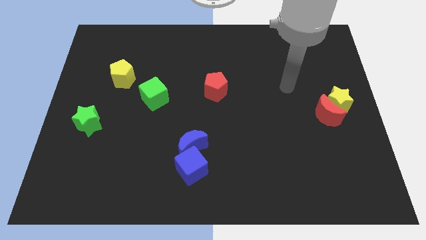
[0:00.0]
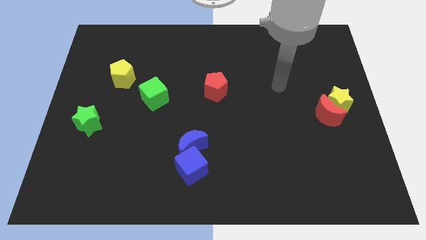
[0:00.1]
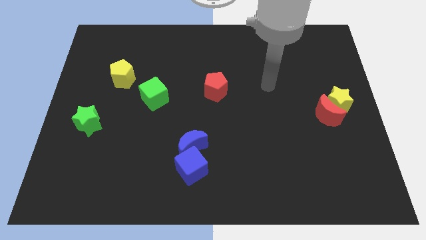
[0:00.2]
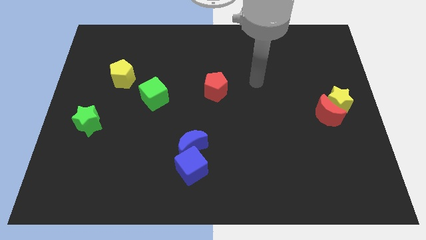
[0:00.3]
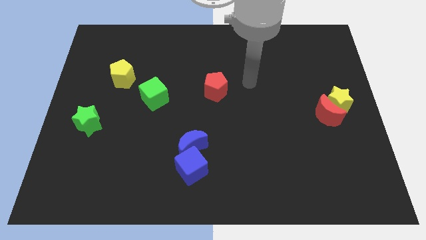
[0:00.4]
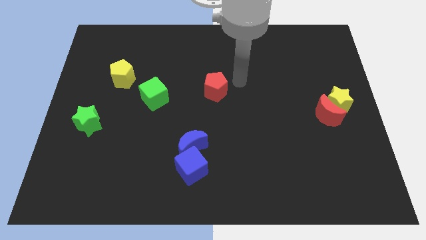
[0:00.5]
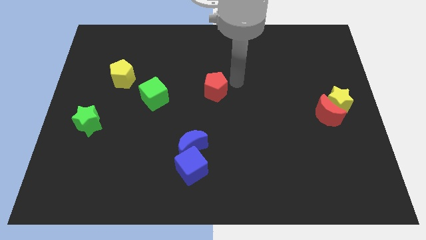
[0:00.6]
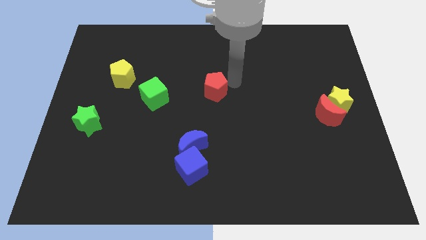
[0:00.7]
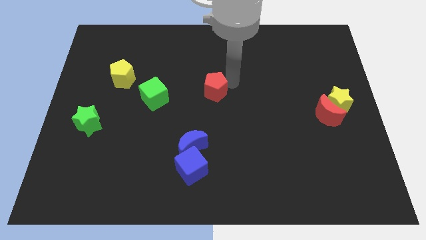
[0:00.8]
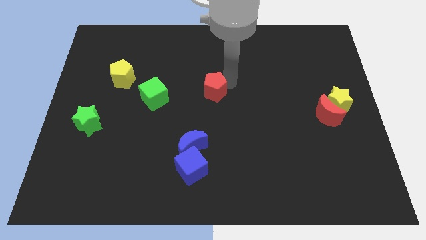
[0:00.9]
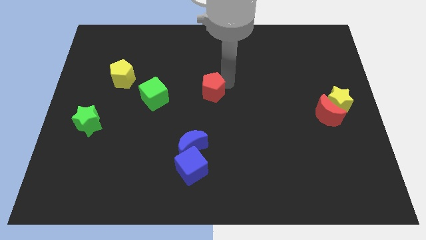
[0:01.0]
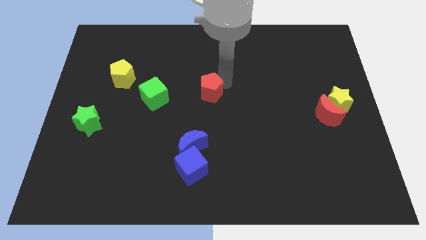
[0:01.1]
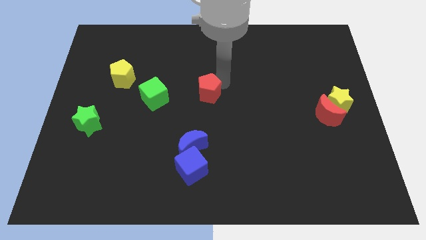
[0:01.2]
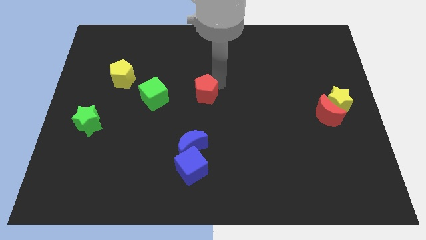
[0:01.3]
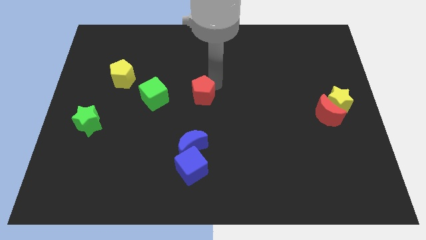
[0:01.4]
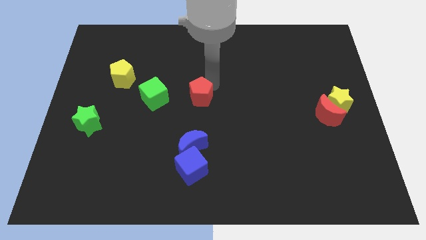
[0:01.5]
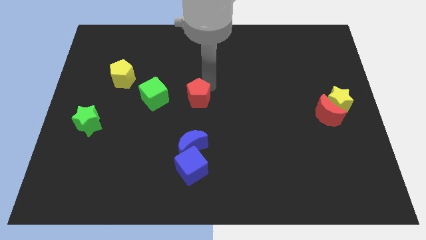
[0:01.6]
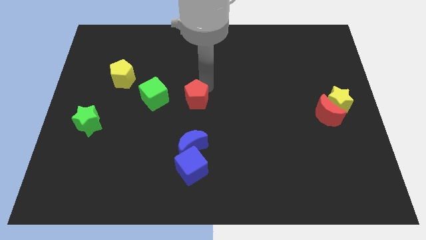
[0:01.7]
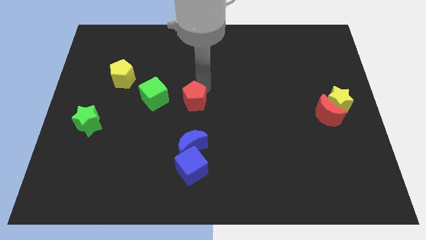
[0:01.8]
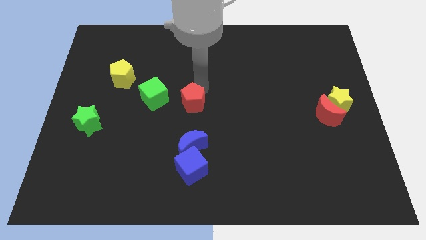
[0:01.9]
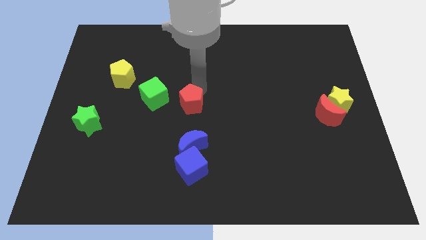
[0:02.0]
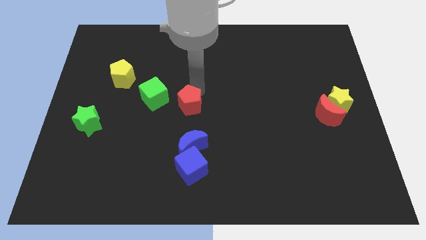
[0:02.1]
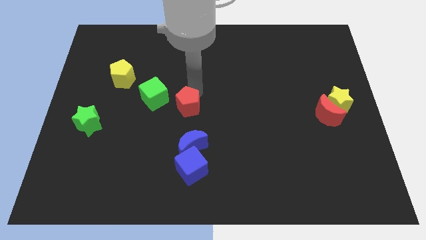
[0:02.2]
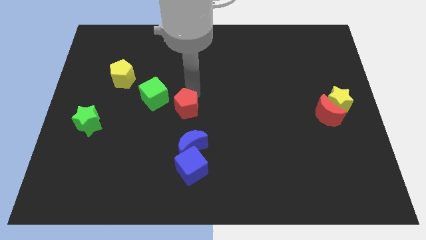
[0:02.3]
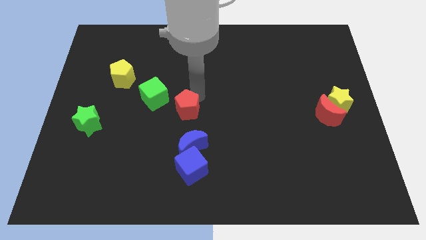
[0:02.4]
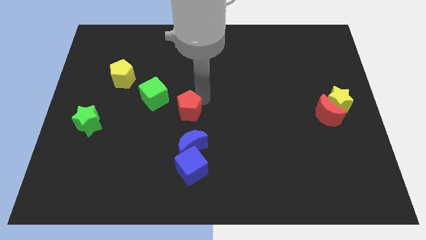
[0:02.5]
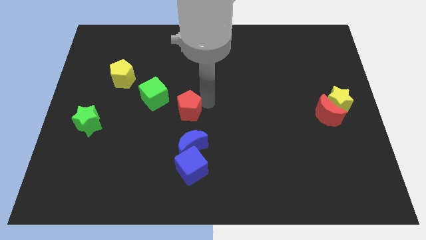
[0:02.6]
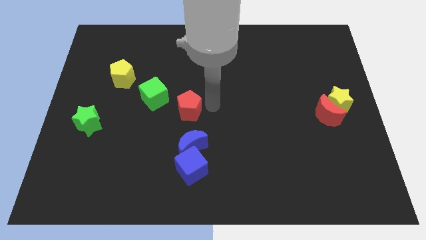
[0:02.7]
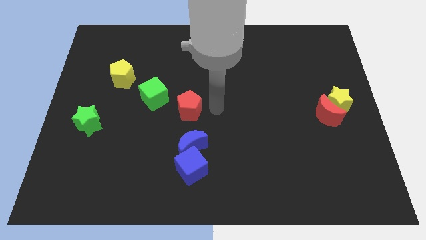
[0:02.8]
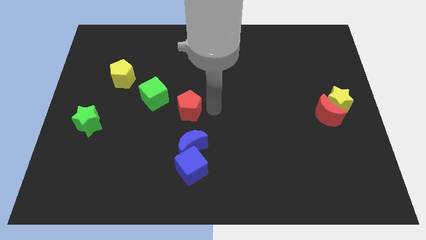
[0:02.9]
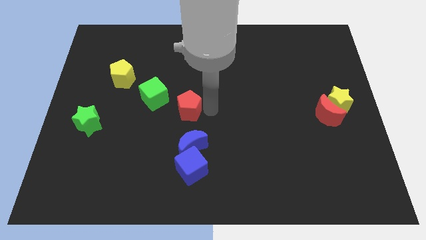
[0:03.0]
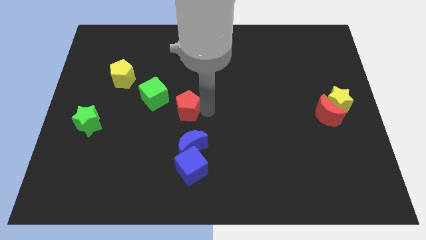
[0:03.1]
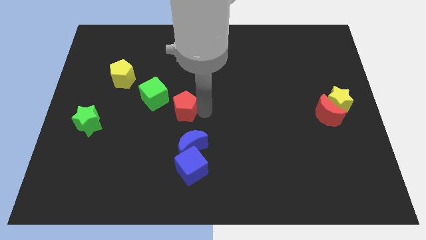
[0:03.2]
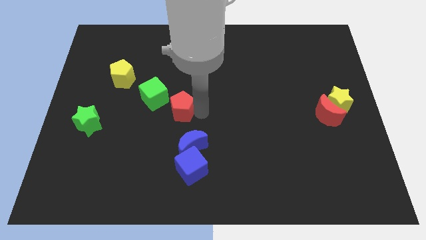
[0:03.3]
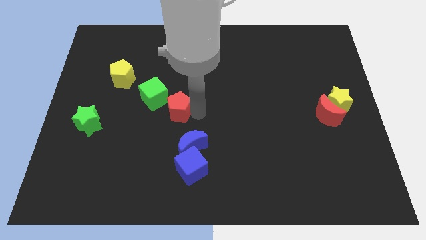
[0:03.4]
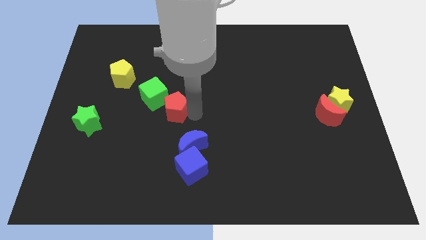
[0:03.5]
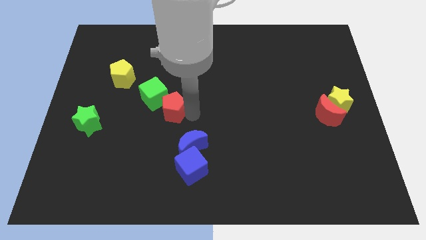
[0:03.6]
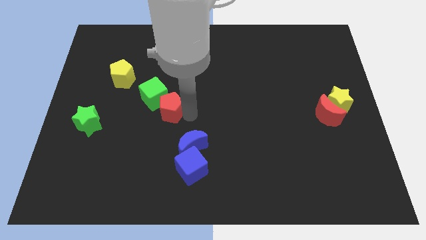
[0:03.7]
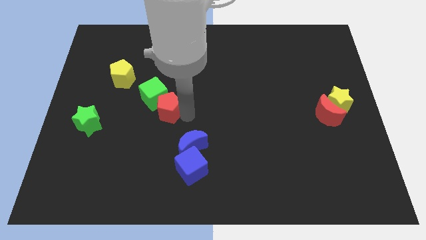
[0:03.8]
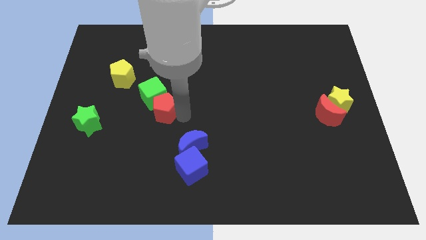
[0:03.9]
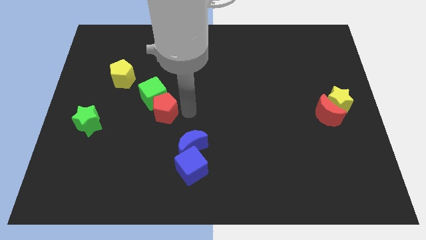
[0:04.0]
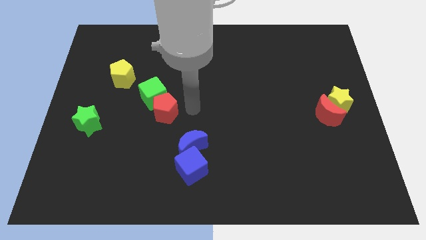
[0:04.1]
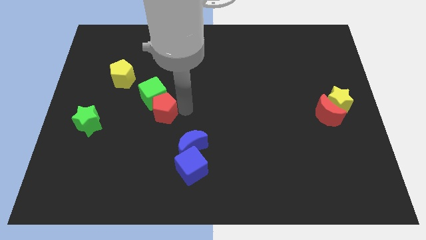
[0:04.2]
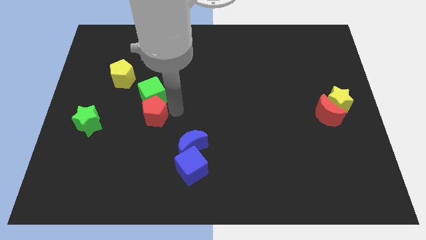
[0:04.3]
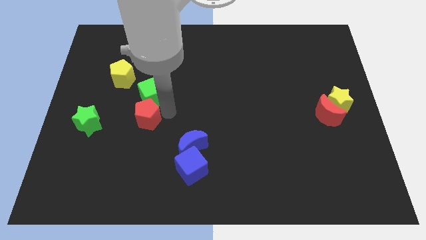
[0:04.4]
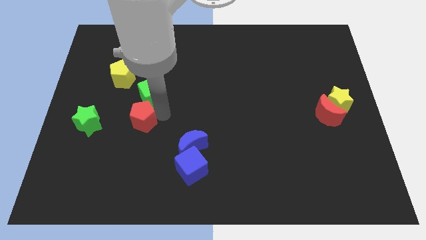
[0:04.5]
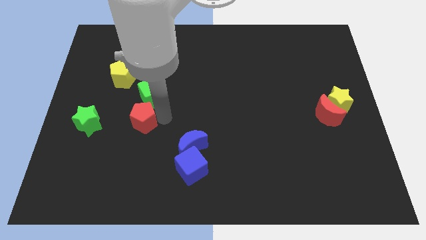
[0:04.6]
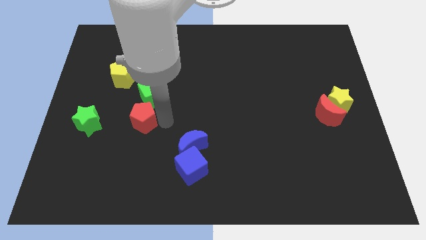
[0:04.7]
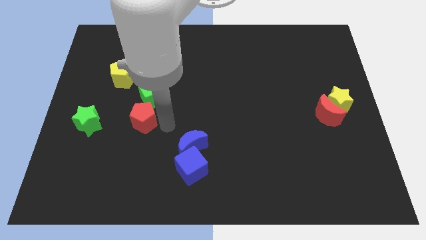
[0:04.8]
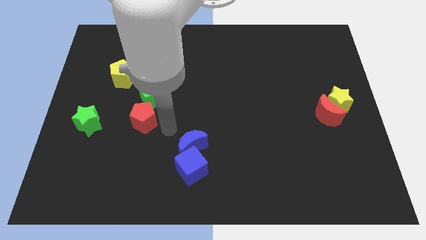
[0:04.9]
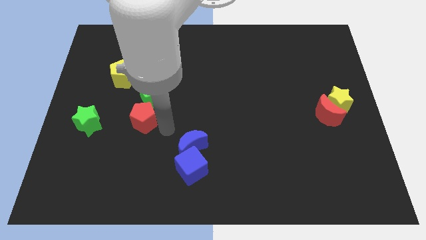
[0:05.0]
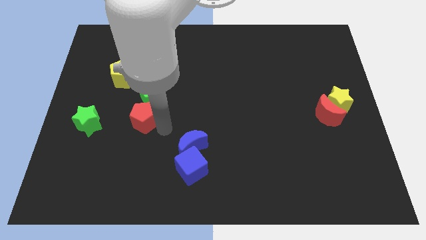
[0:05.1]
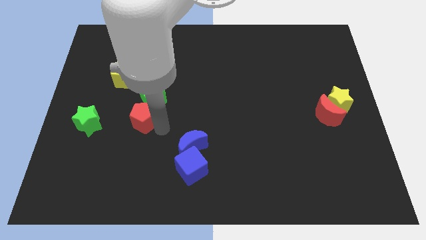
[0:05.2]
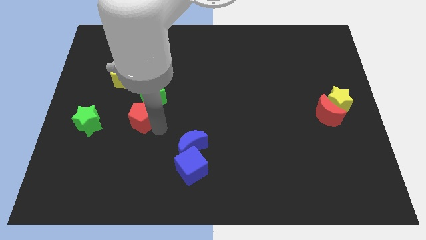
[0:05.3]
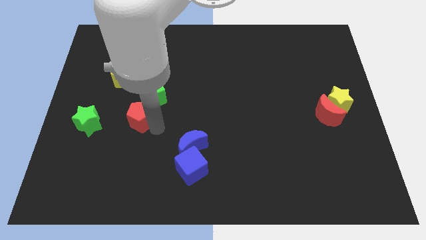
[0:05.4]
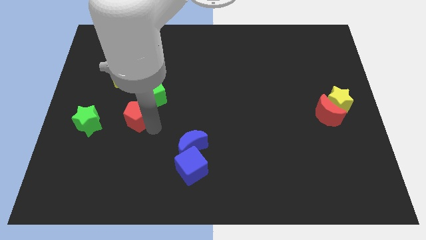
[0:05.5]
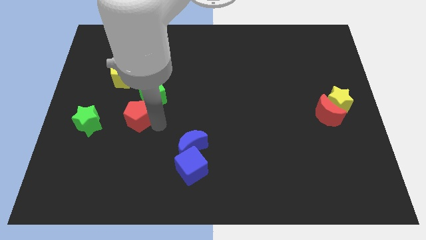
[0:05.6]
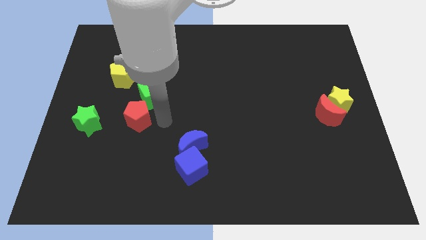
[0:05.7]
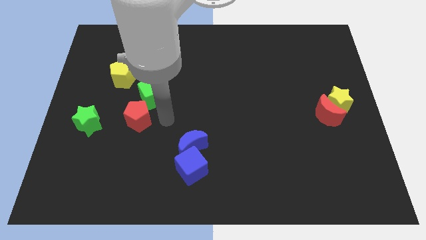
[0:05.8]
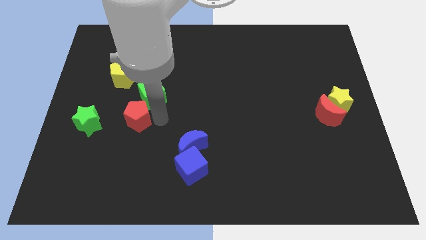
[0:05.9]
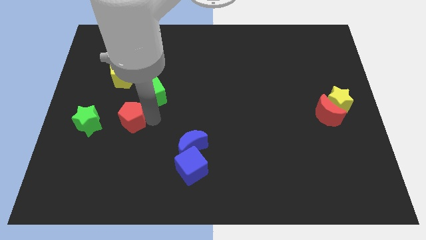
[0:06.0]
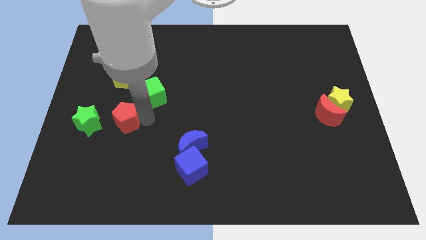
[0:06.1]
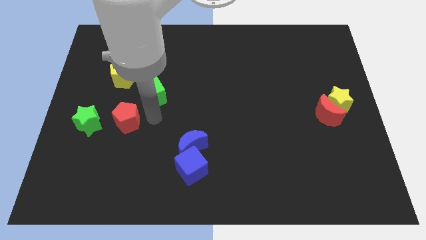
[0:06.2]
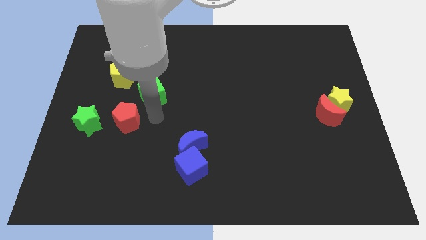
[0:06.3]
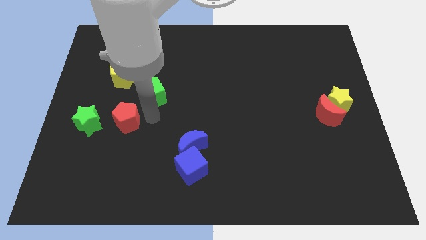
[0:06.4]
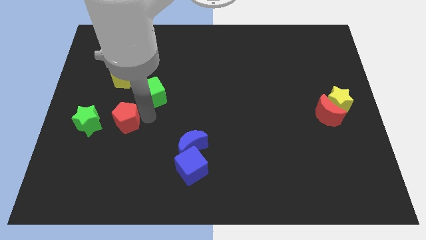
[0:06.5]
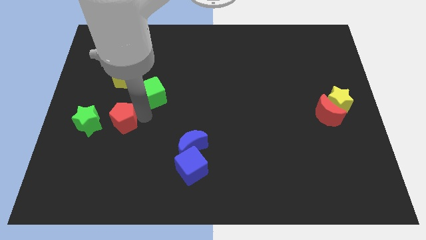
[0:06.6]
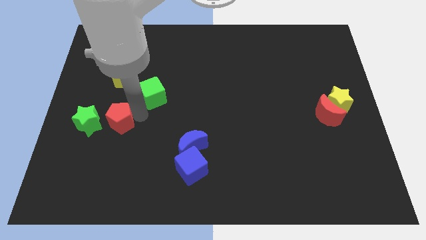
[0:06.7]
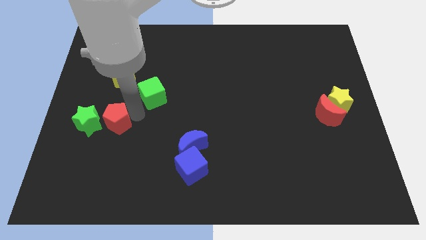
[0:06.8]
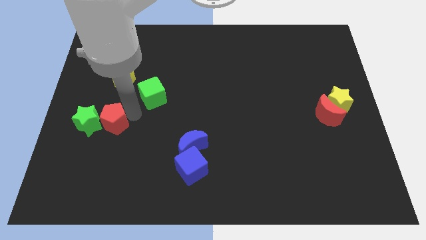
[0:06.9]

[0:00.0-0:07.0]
push the red pentagon to the green star

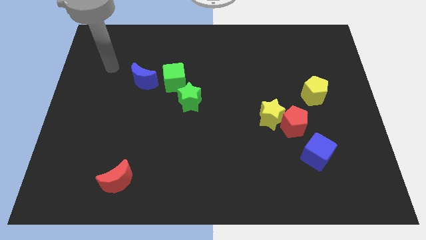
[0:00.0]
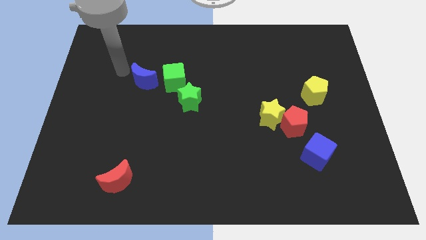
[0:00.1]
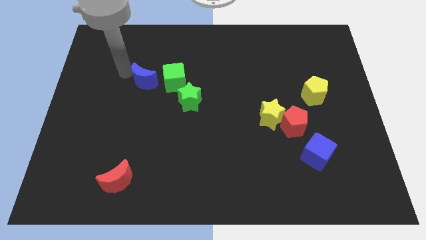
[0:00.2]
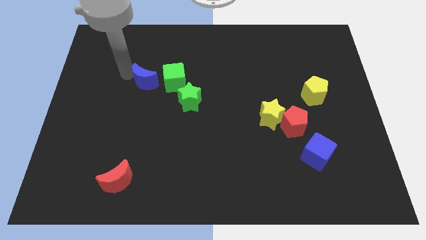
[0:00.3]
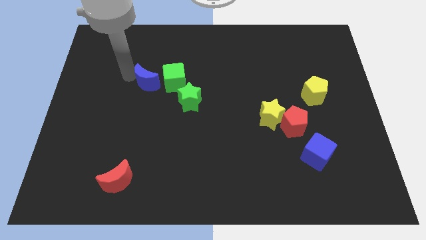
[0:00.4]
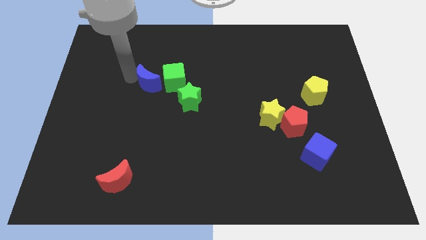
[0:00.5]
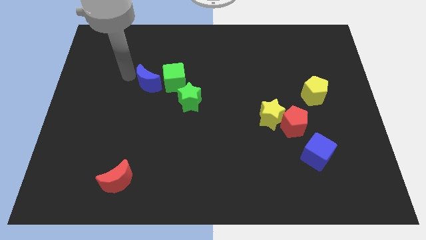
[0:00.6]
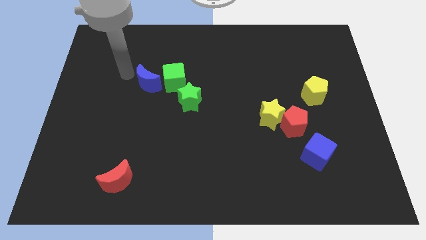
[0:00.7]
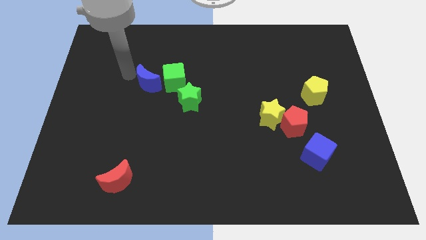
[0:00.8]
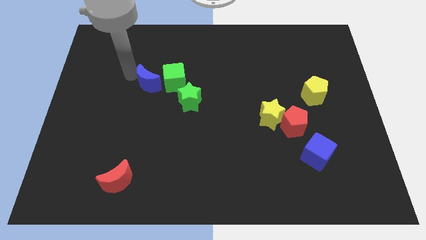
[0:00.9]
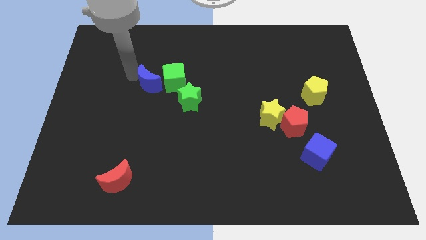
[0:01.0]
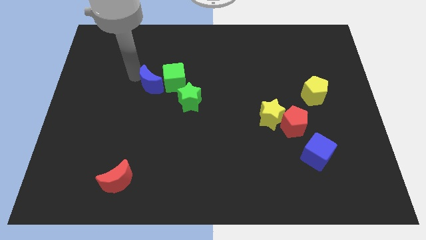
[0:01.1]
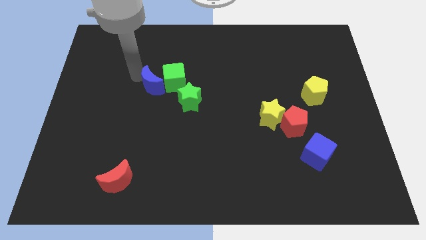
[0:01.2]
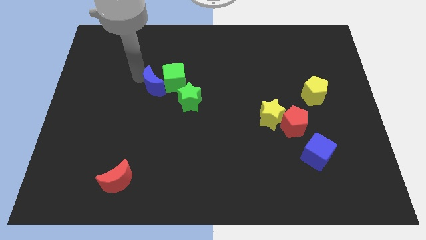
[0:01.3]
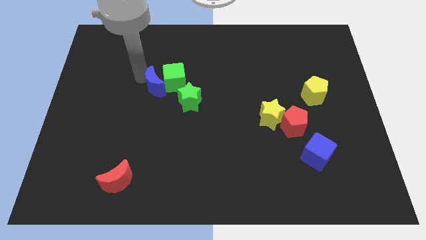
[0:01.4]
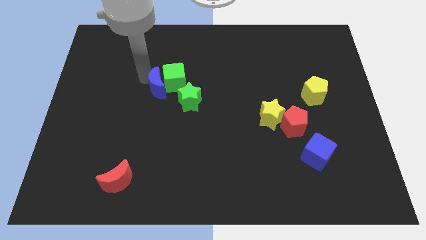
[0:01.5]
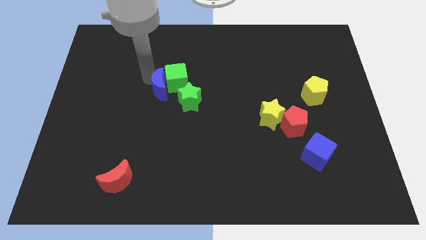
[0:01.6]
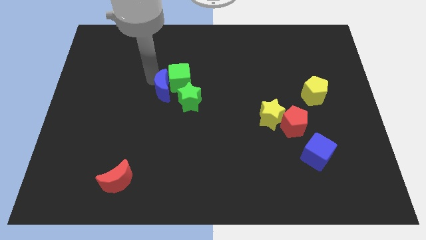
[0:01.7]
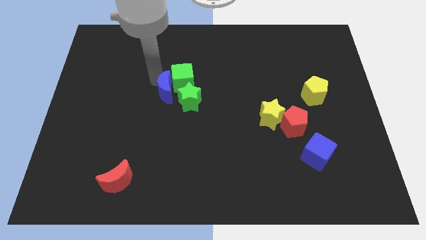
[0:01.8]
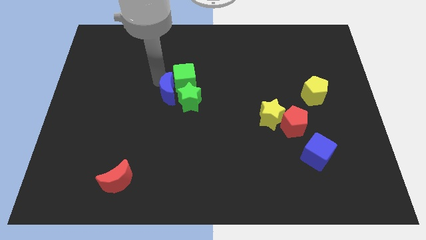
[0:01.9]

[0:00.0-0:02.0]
push the blue moon next to the green star
